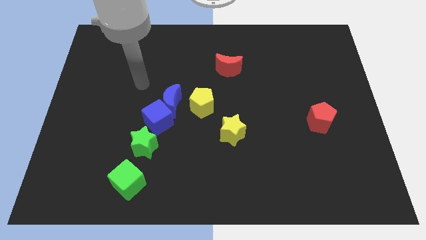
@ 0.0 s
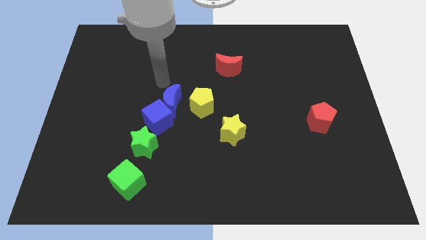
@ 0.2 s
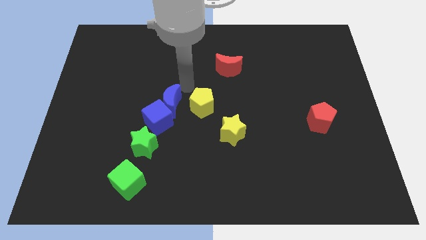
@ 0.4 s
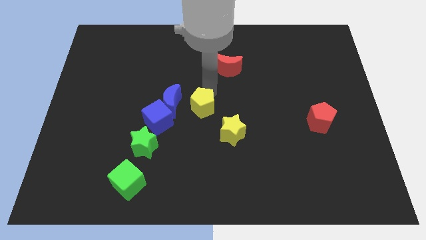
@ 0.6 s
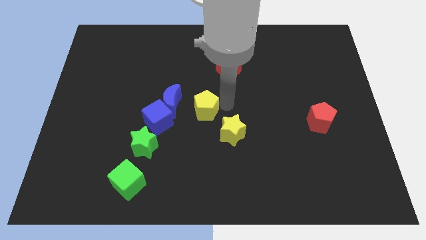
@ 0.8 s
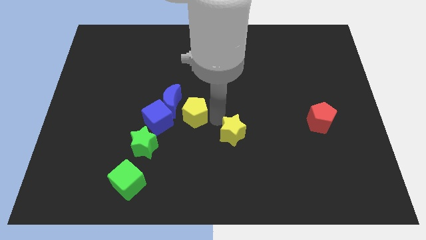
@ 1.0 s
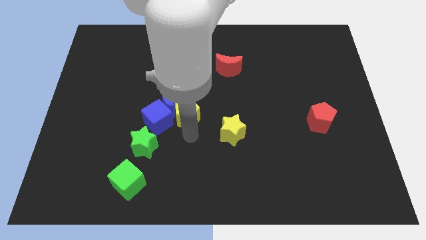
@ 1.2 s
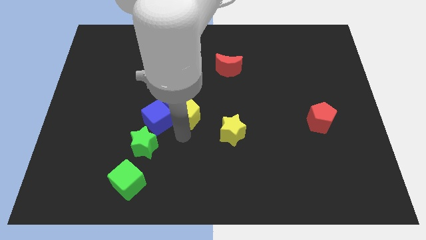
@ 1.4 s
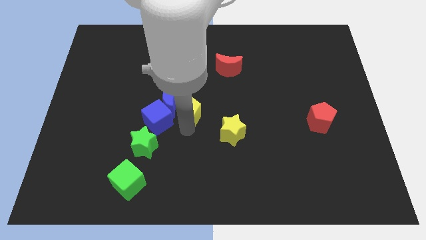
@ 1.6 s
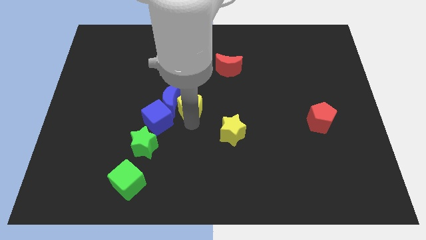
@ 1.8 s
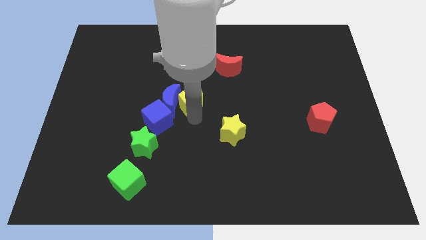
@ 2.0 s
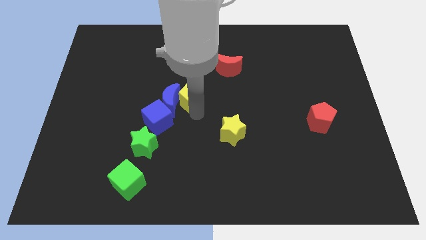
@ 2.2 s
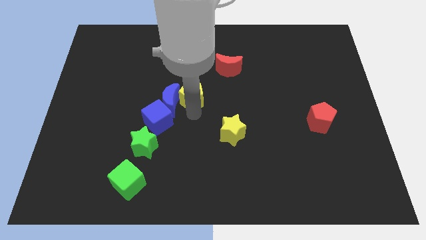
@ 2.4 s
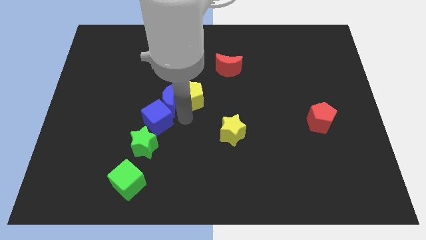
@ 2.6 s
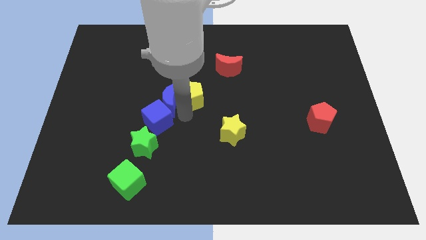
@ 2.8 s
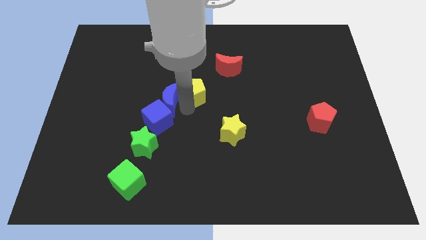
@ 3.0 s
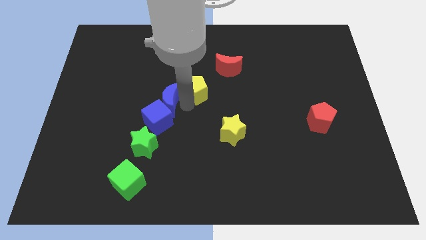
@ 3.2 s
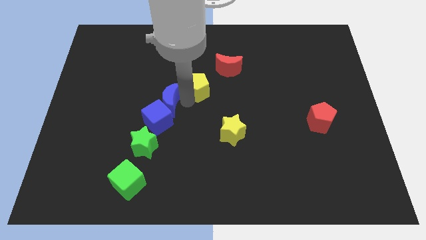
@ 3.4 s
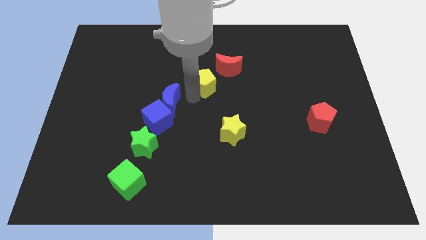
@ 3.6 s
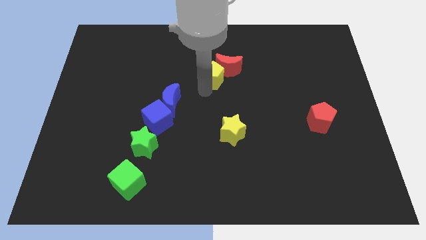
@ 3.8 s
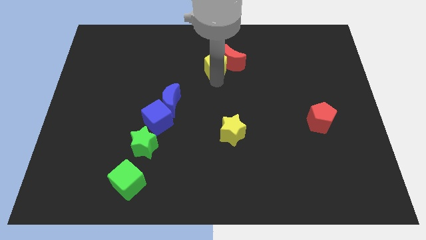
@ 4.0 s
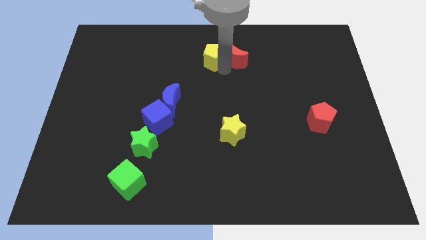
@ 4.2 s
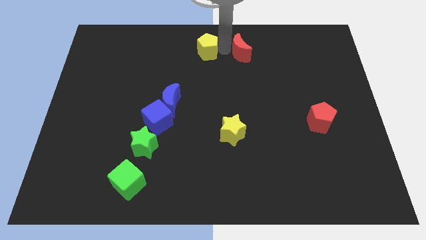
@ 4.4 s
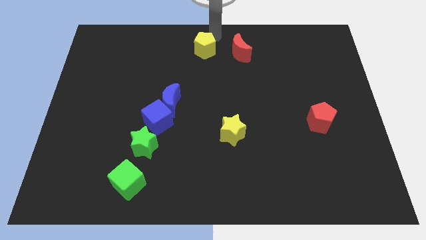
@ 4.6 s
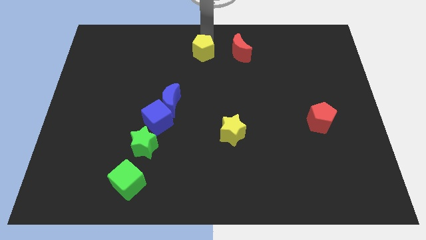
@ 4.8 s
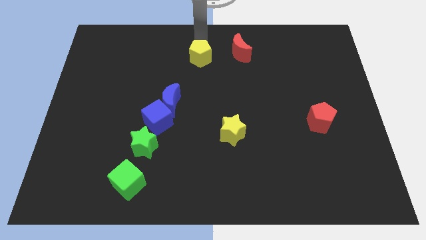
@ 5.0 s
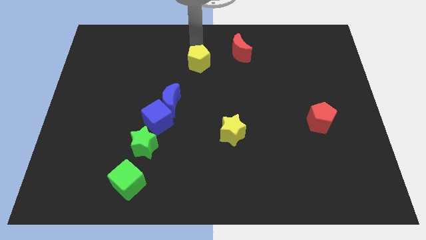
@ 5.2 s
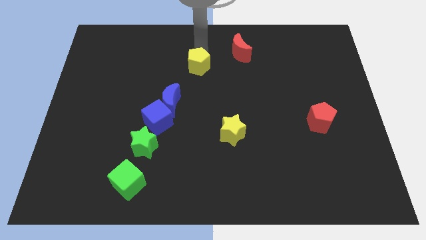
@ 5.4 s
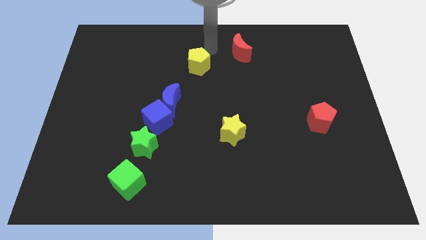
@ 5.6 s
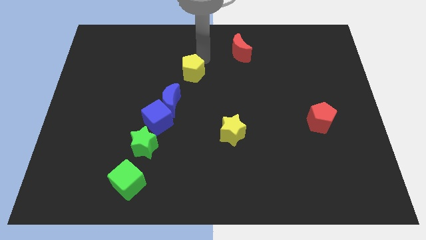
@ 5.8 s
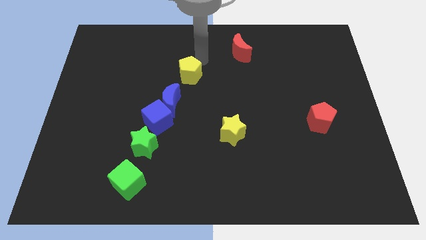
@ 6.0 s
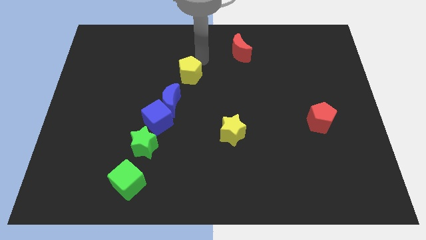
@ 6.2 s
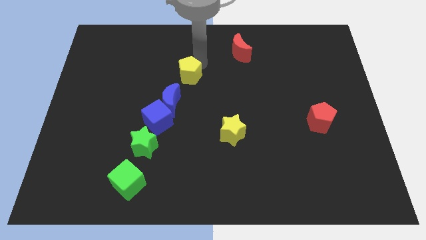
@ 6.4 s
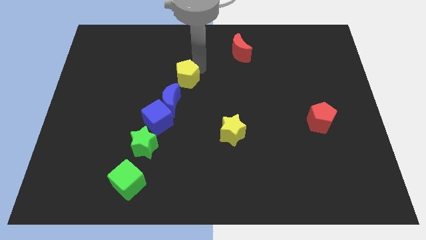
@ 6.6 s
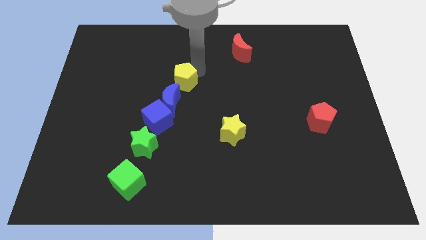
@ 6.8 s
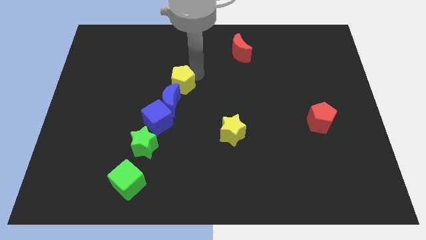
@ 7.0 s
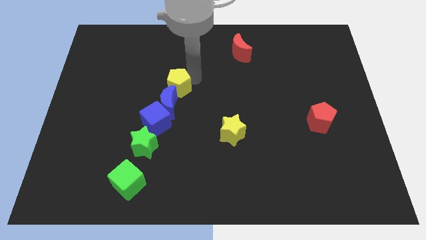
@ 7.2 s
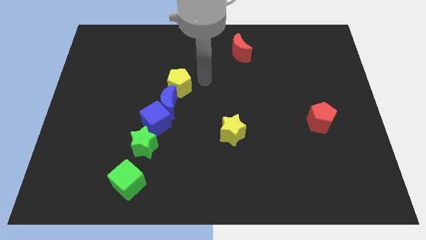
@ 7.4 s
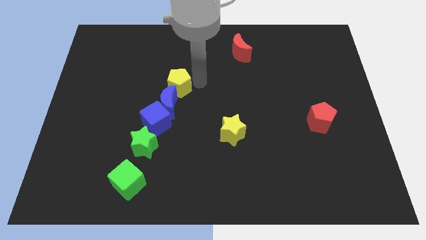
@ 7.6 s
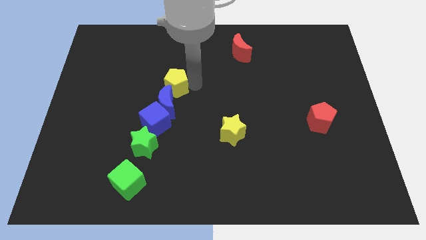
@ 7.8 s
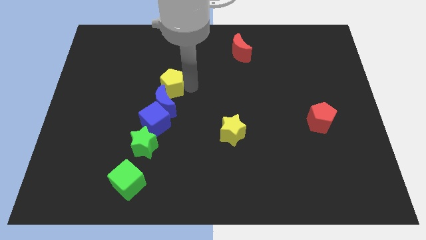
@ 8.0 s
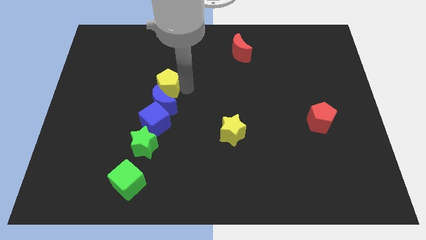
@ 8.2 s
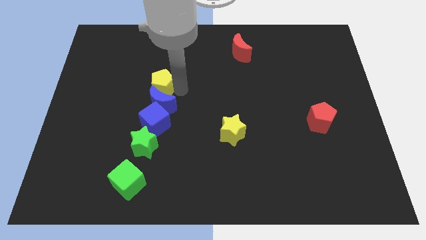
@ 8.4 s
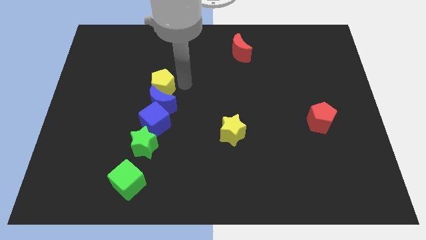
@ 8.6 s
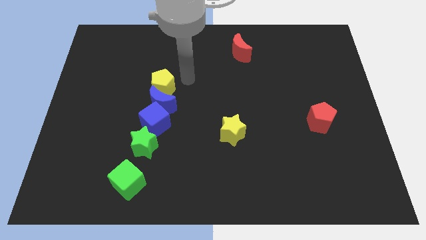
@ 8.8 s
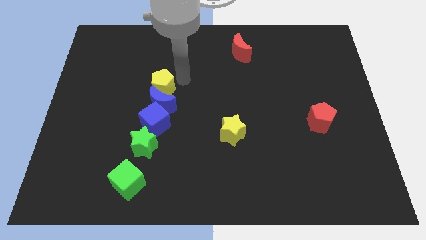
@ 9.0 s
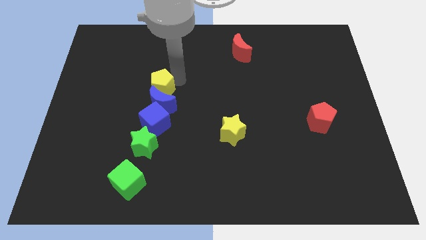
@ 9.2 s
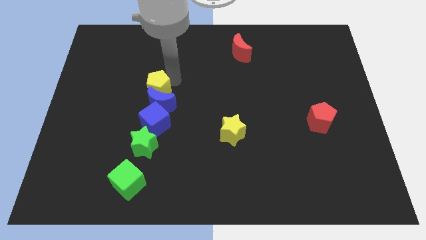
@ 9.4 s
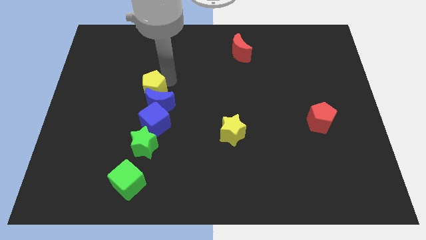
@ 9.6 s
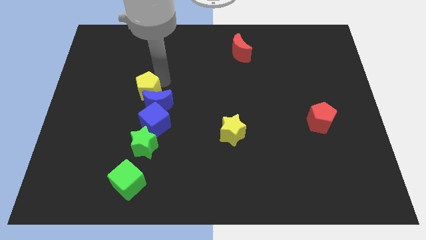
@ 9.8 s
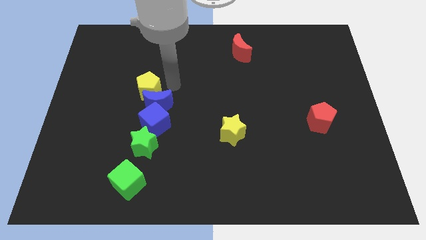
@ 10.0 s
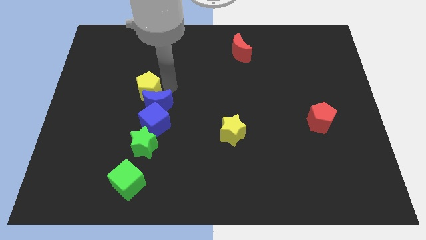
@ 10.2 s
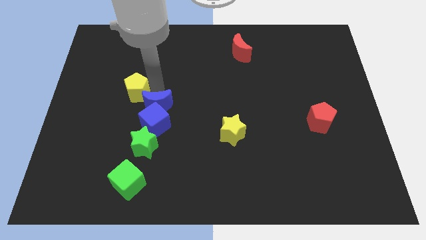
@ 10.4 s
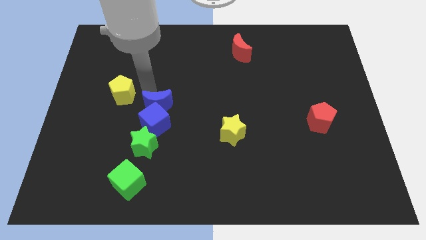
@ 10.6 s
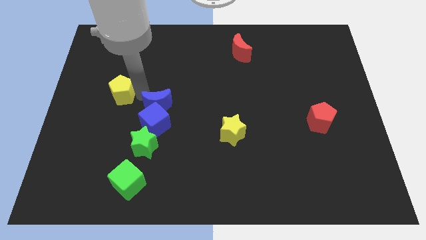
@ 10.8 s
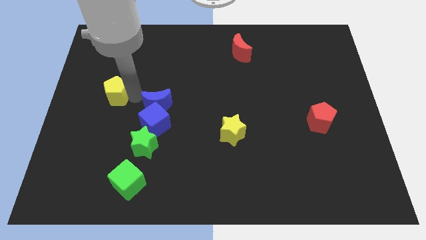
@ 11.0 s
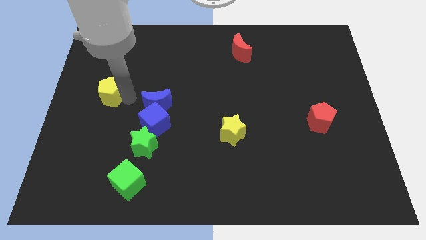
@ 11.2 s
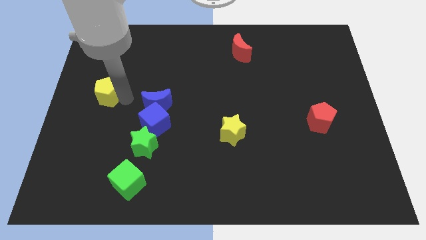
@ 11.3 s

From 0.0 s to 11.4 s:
move the yellow pentagon to the center left

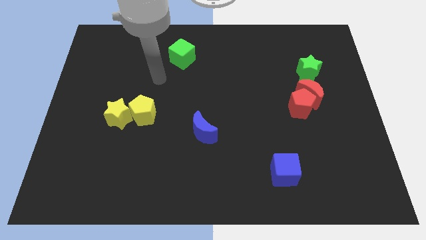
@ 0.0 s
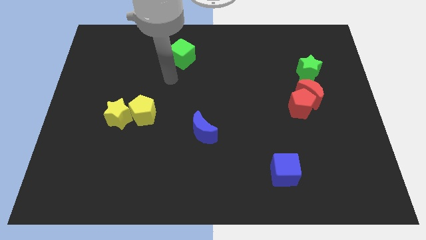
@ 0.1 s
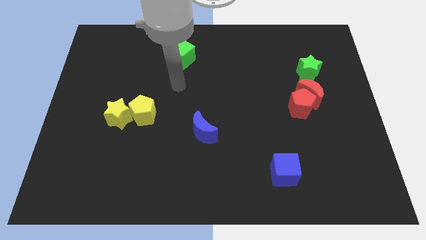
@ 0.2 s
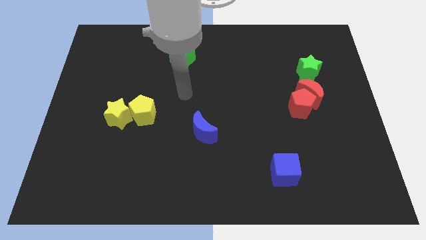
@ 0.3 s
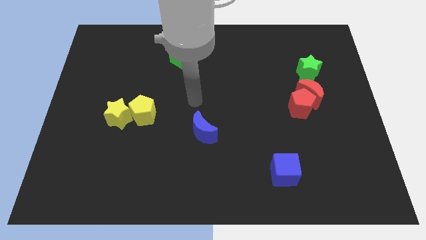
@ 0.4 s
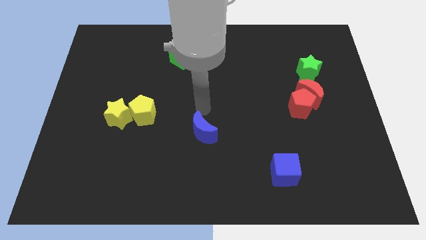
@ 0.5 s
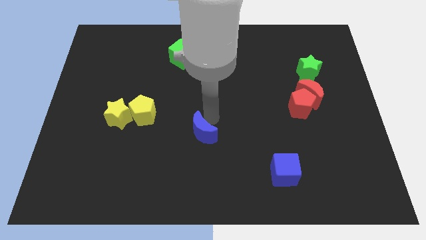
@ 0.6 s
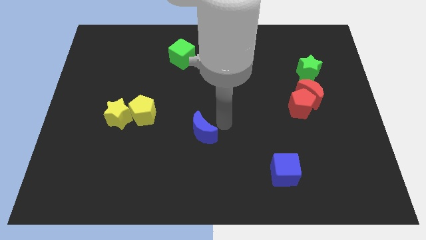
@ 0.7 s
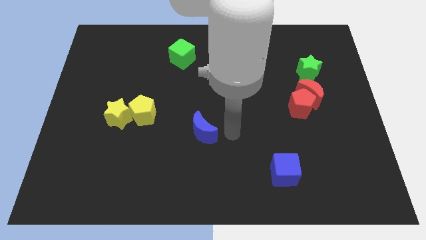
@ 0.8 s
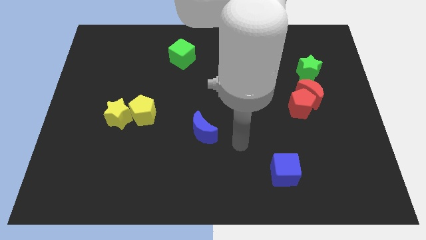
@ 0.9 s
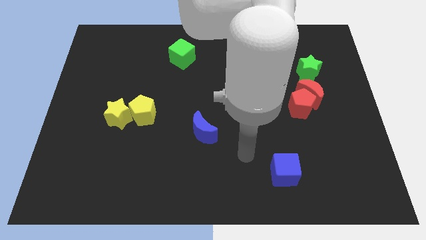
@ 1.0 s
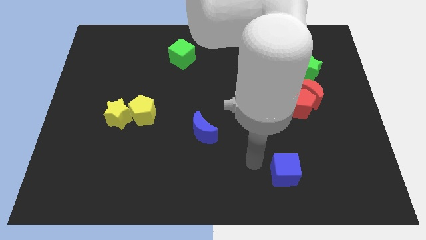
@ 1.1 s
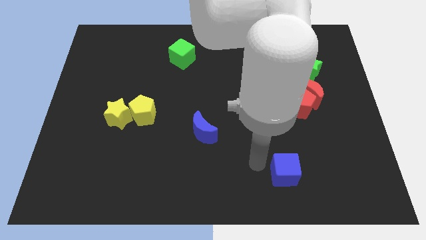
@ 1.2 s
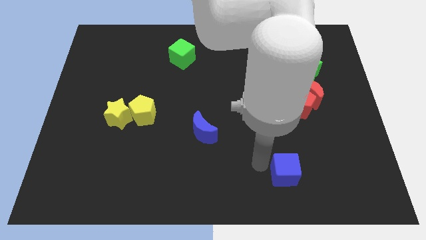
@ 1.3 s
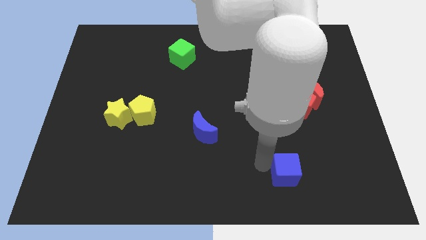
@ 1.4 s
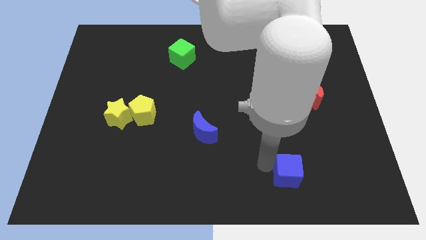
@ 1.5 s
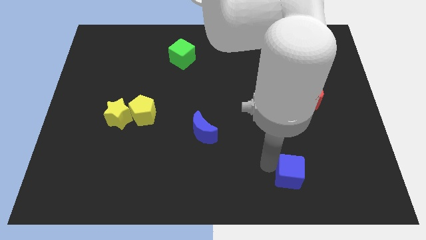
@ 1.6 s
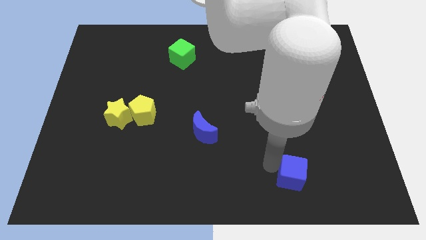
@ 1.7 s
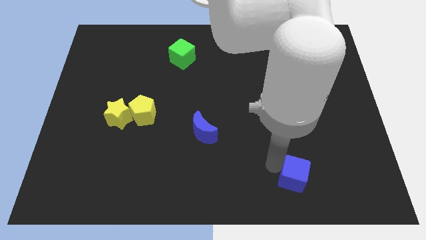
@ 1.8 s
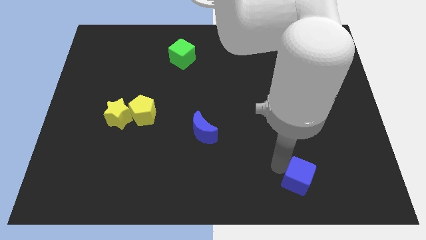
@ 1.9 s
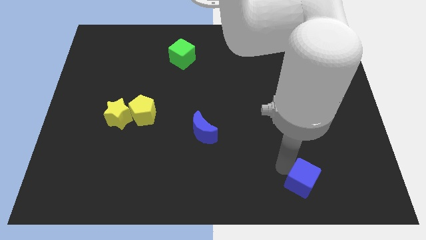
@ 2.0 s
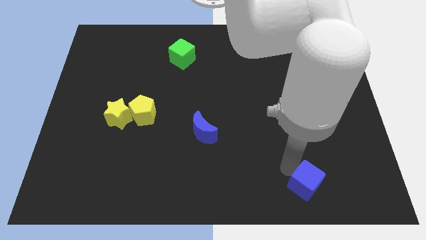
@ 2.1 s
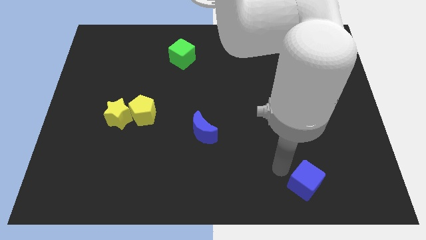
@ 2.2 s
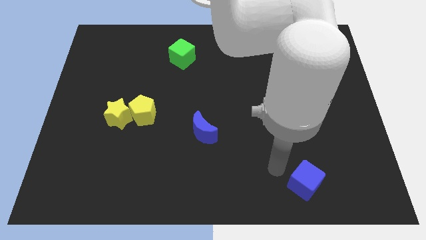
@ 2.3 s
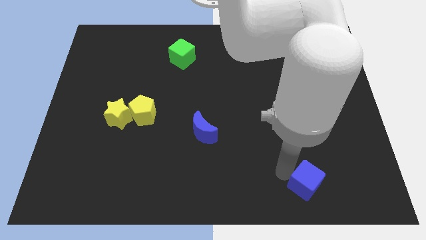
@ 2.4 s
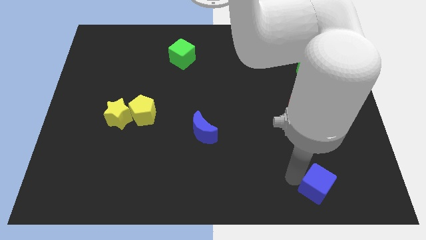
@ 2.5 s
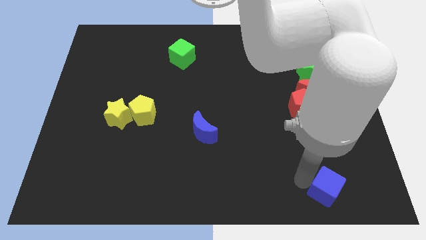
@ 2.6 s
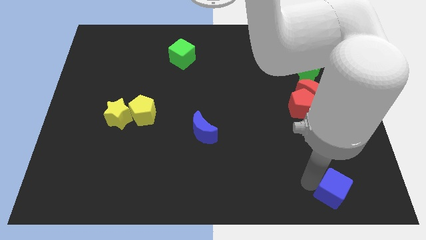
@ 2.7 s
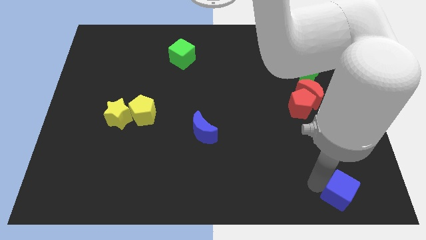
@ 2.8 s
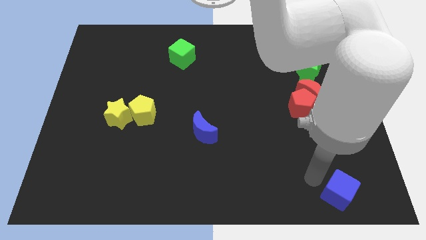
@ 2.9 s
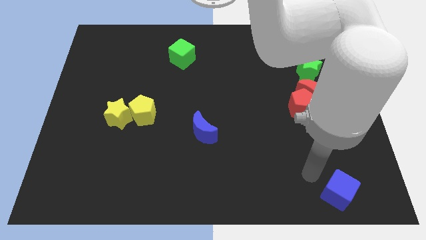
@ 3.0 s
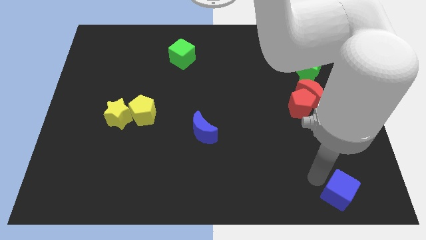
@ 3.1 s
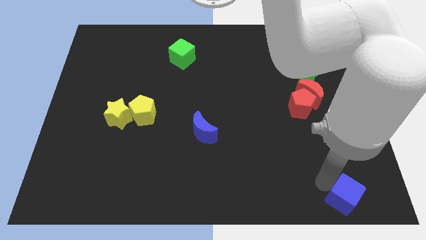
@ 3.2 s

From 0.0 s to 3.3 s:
slide the blue cube to the bottom right corner
